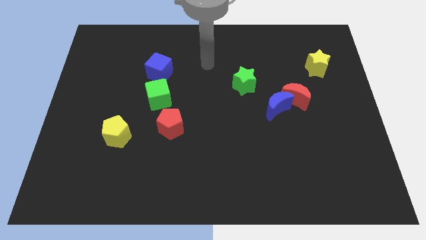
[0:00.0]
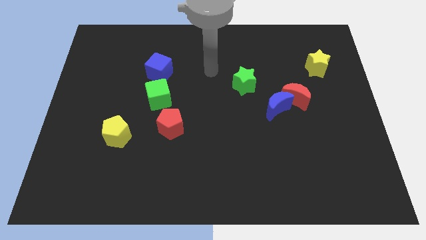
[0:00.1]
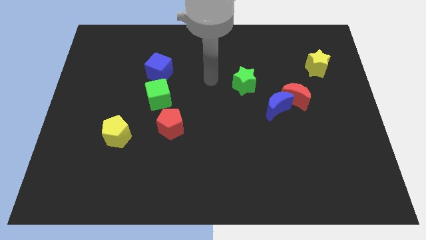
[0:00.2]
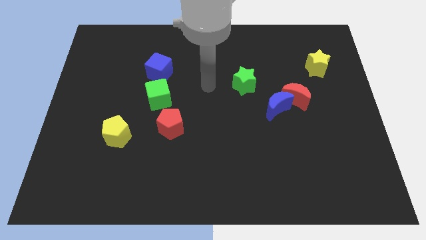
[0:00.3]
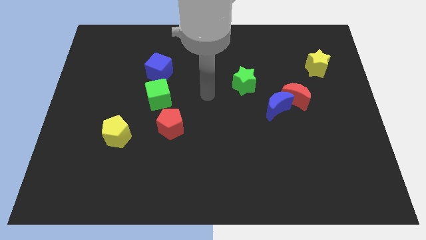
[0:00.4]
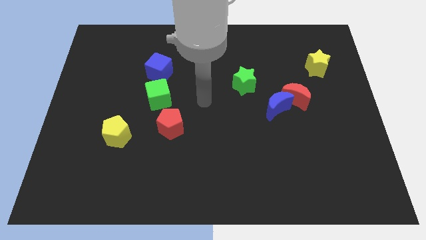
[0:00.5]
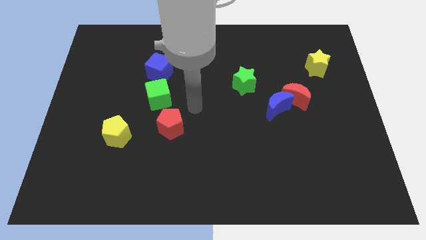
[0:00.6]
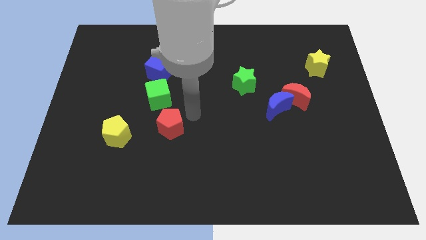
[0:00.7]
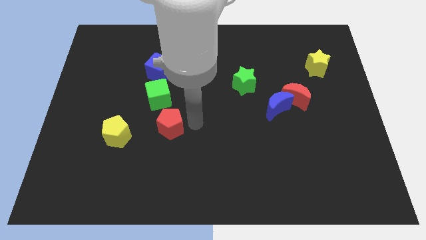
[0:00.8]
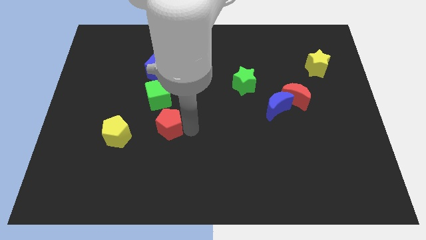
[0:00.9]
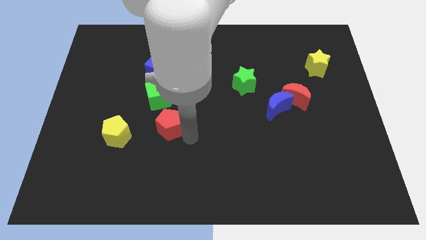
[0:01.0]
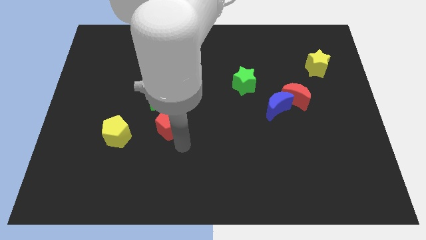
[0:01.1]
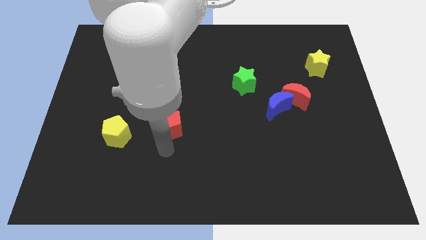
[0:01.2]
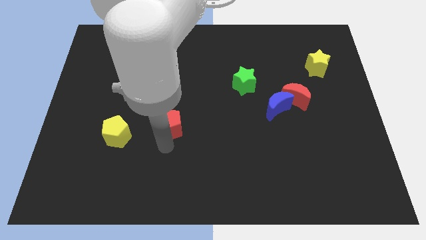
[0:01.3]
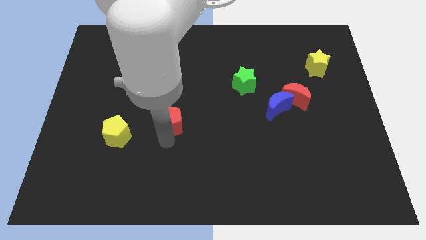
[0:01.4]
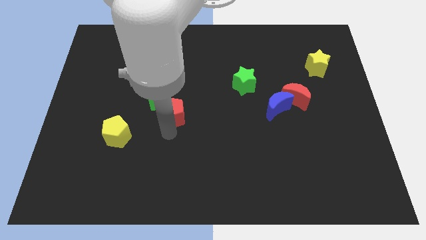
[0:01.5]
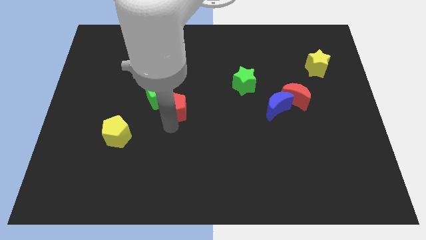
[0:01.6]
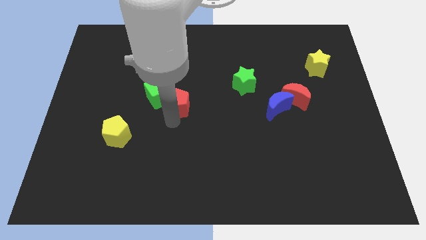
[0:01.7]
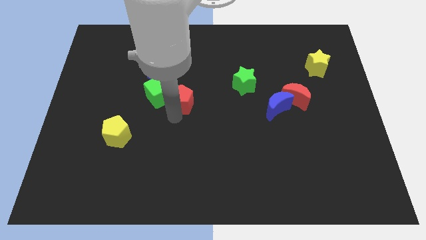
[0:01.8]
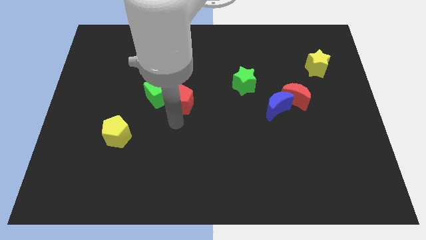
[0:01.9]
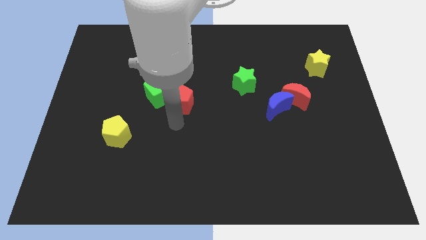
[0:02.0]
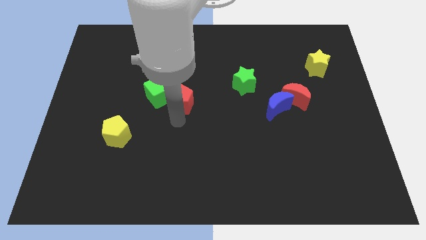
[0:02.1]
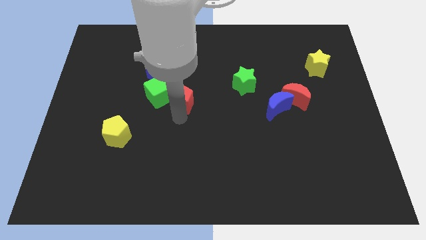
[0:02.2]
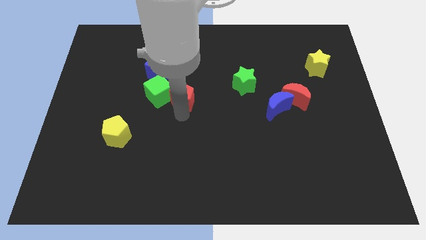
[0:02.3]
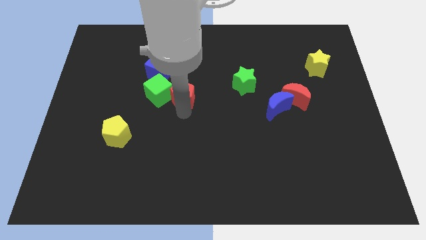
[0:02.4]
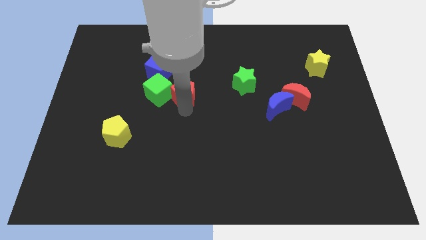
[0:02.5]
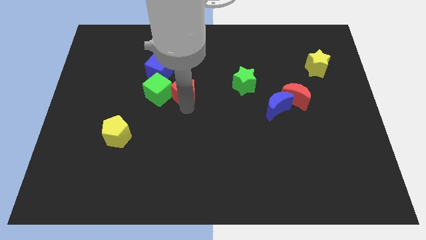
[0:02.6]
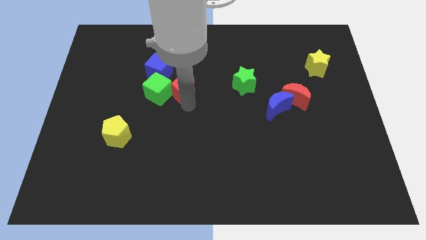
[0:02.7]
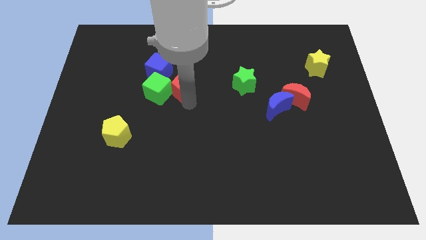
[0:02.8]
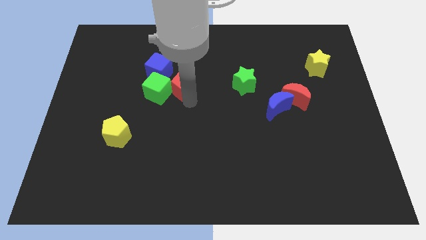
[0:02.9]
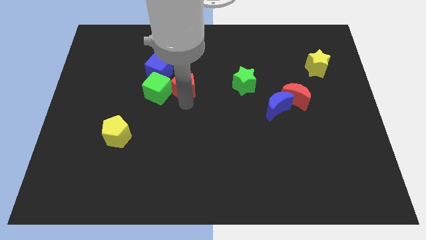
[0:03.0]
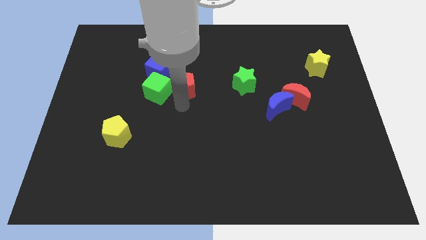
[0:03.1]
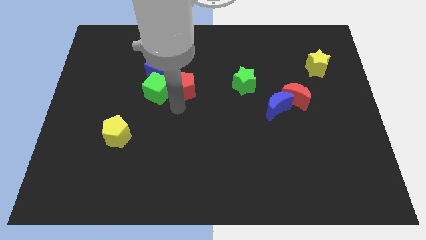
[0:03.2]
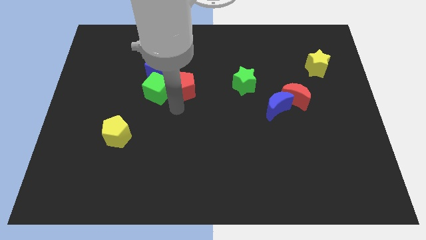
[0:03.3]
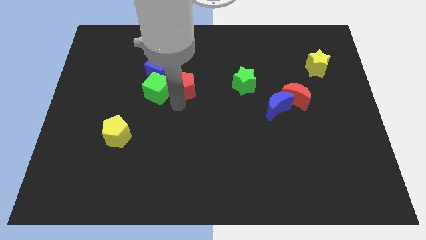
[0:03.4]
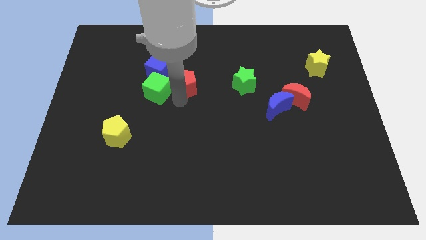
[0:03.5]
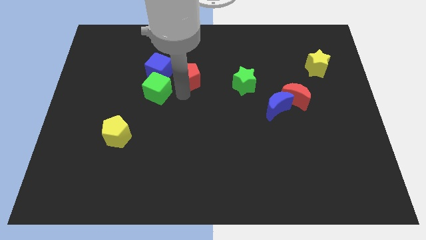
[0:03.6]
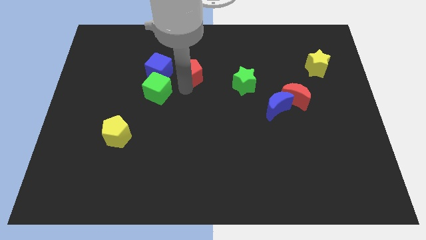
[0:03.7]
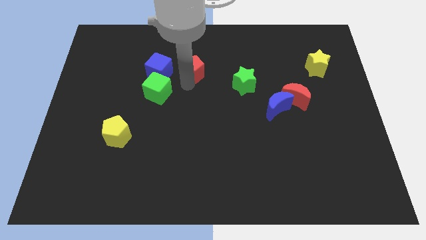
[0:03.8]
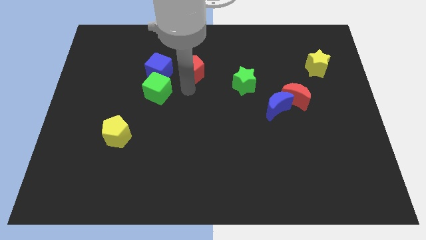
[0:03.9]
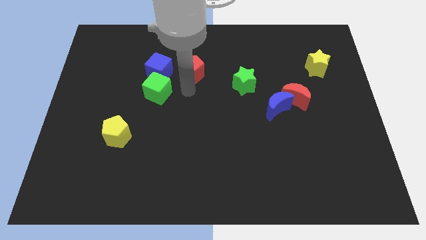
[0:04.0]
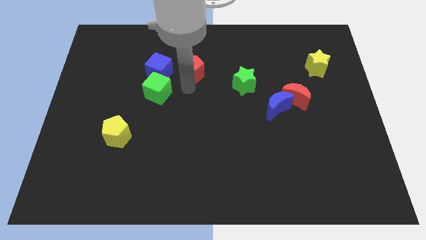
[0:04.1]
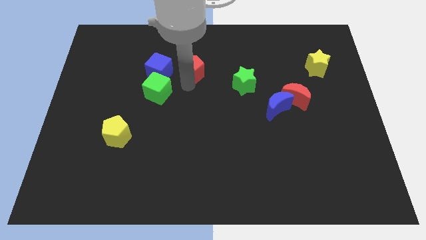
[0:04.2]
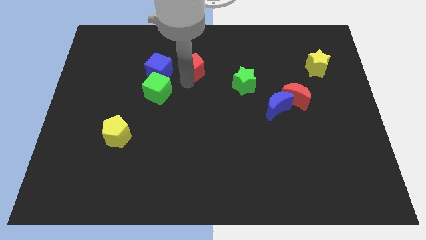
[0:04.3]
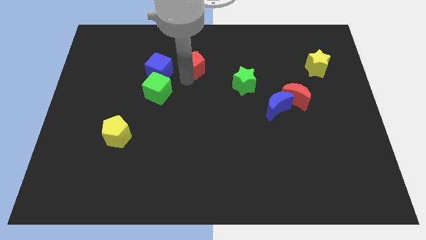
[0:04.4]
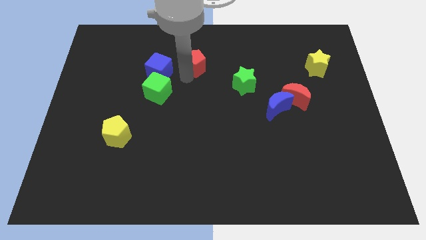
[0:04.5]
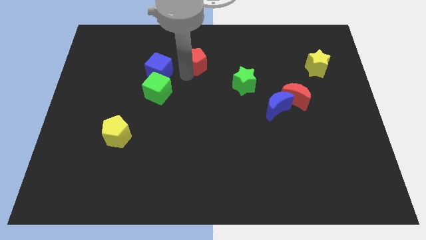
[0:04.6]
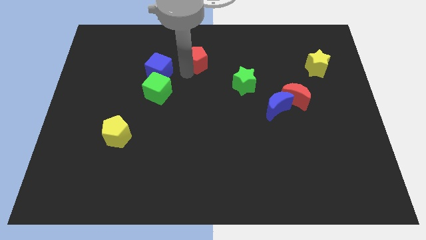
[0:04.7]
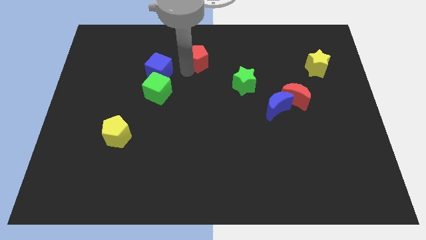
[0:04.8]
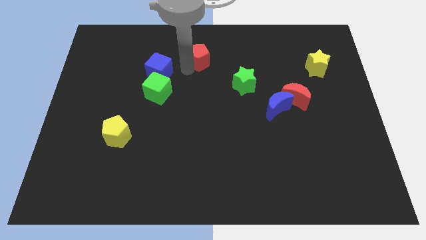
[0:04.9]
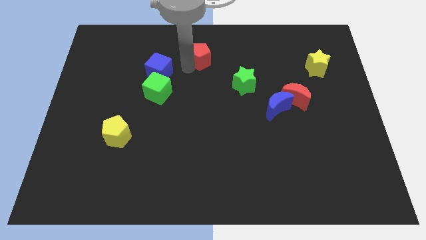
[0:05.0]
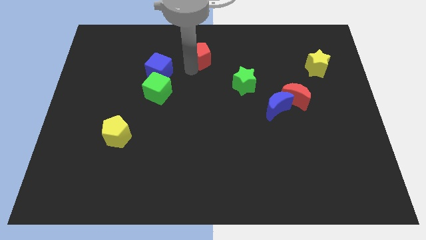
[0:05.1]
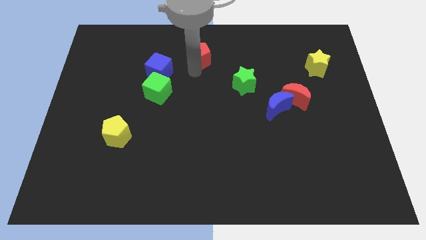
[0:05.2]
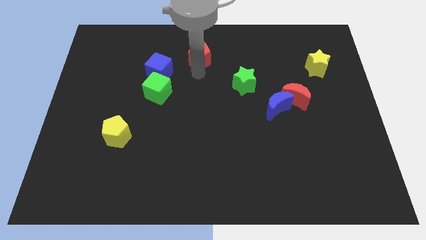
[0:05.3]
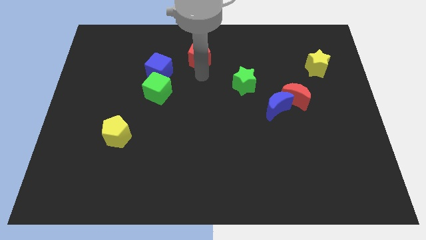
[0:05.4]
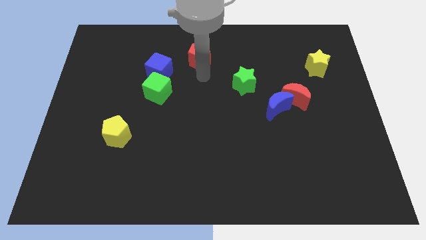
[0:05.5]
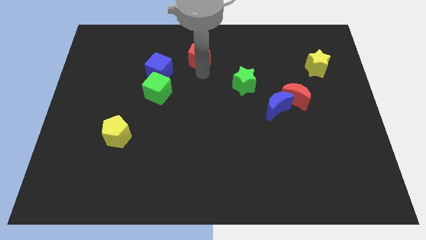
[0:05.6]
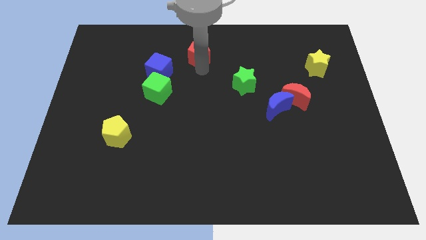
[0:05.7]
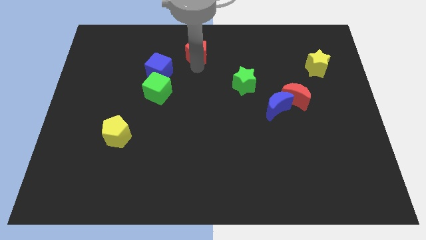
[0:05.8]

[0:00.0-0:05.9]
put the red pentagon to the towards your base

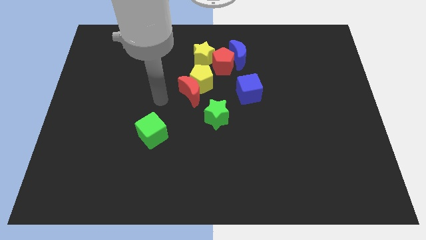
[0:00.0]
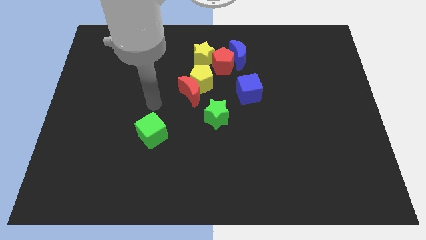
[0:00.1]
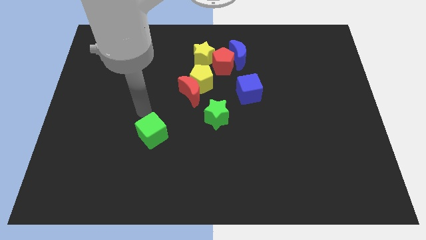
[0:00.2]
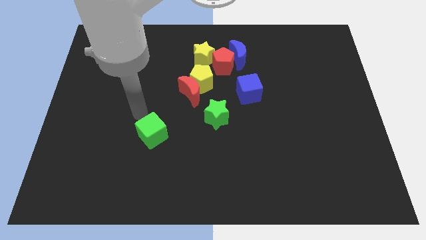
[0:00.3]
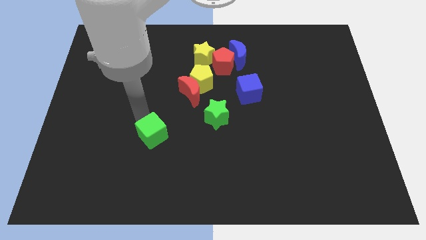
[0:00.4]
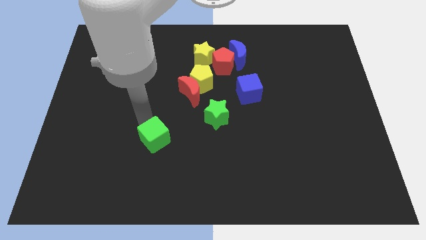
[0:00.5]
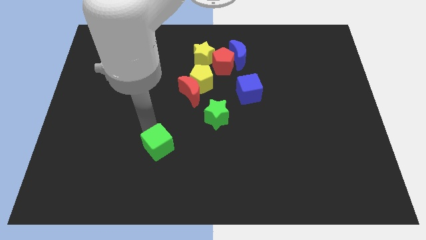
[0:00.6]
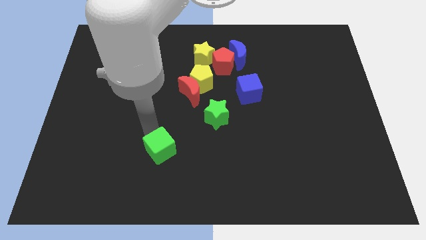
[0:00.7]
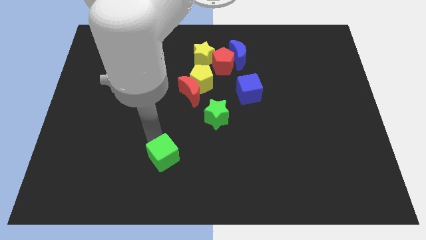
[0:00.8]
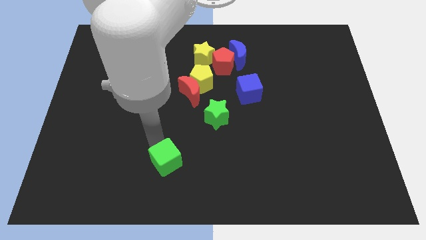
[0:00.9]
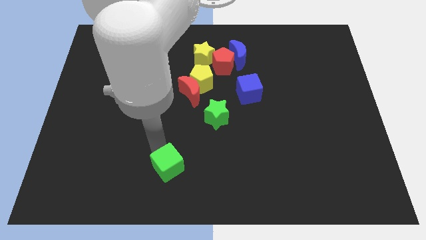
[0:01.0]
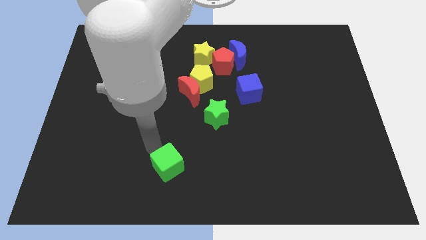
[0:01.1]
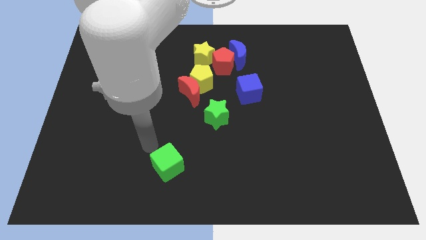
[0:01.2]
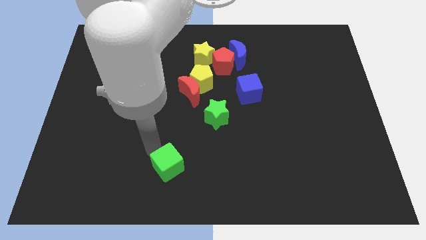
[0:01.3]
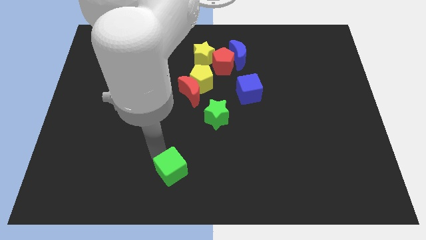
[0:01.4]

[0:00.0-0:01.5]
put the green cube to the bottom

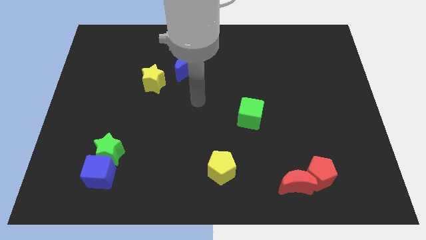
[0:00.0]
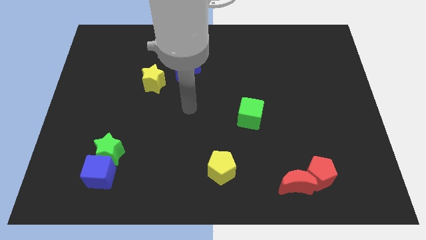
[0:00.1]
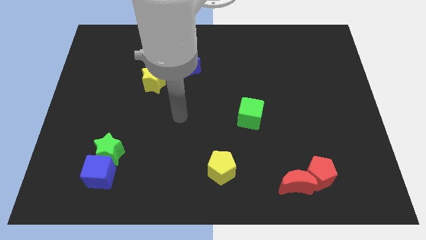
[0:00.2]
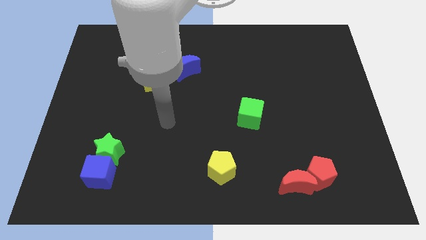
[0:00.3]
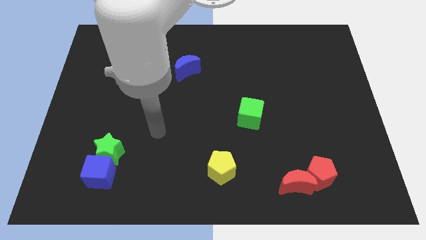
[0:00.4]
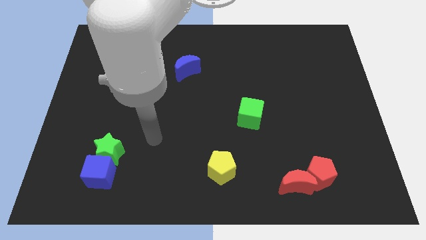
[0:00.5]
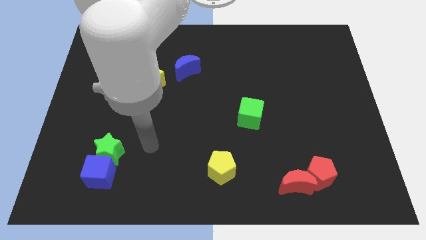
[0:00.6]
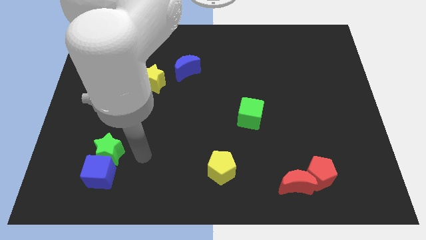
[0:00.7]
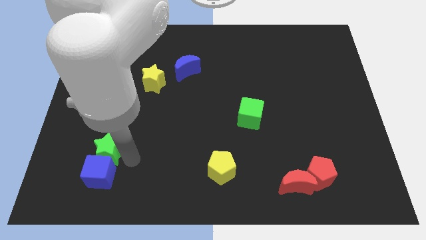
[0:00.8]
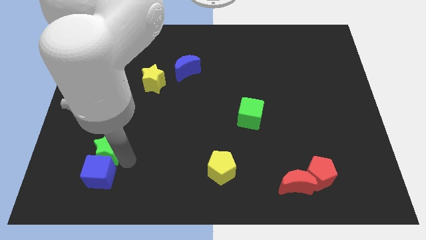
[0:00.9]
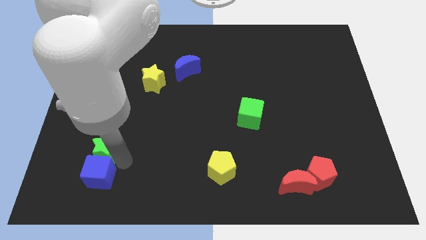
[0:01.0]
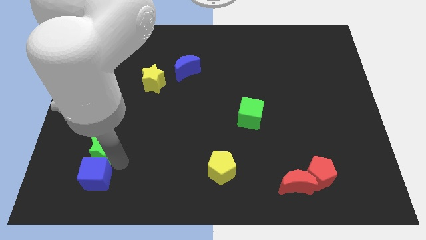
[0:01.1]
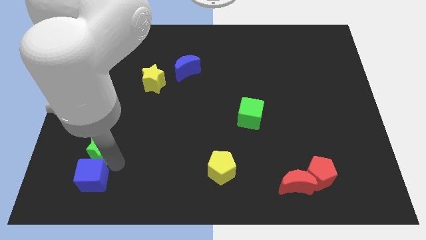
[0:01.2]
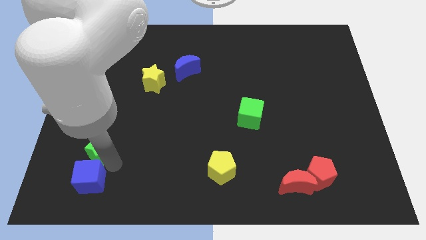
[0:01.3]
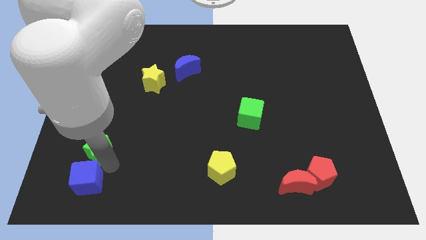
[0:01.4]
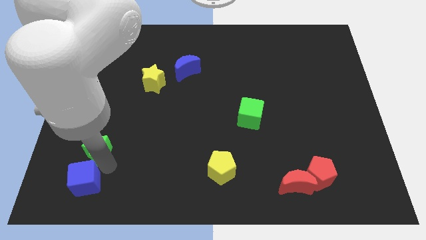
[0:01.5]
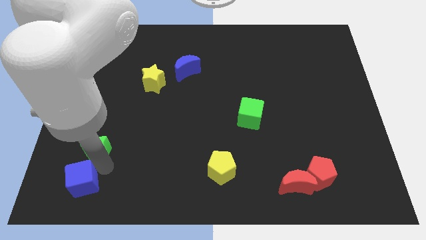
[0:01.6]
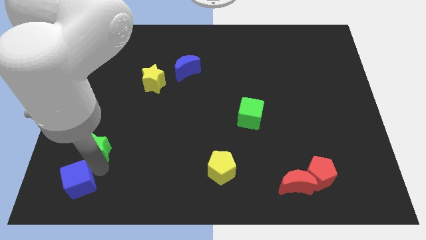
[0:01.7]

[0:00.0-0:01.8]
put the blue cube to the bottom left
